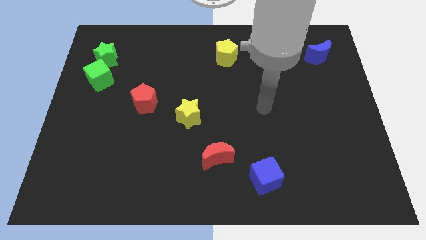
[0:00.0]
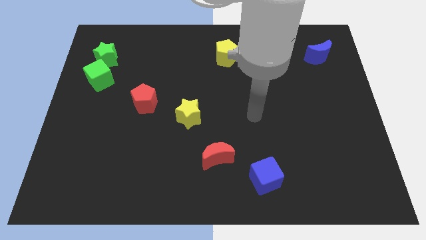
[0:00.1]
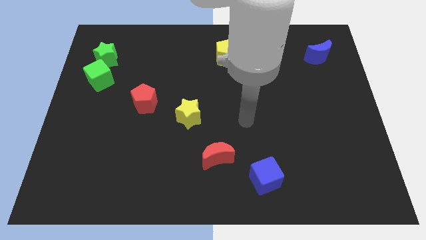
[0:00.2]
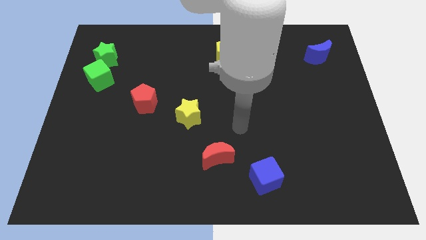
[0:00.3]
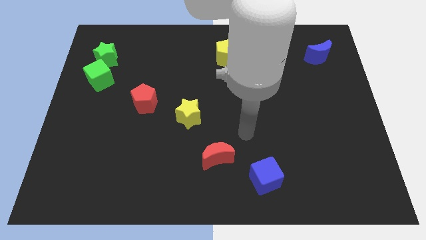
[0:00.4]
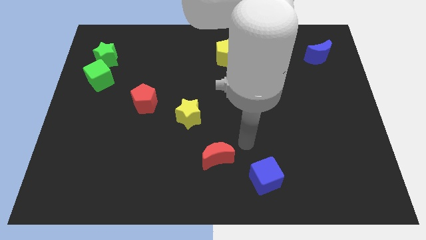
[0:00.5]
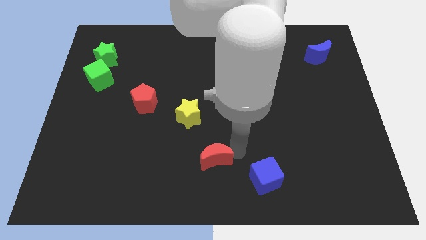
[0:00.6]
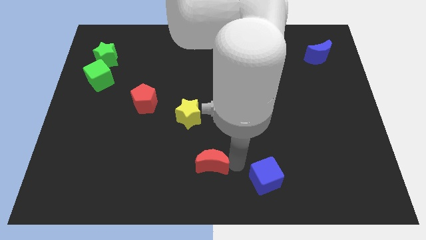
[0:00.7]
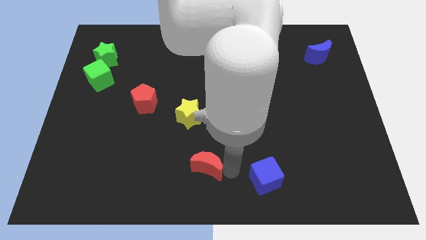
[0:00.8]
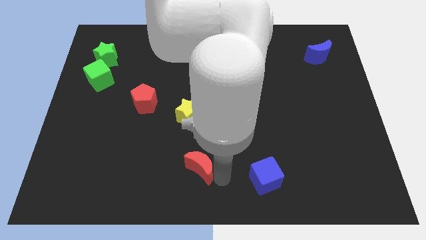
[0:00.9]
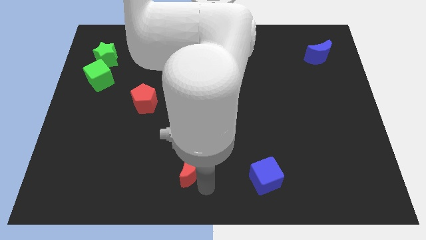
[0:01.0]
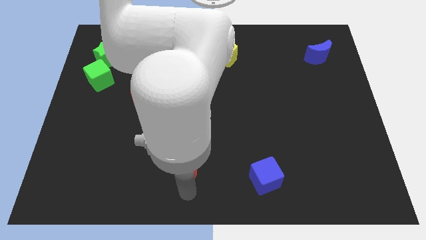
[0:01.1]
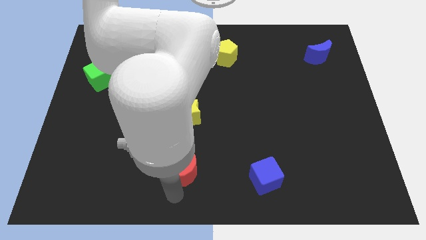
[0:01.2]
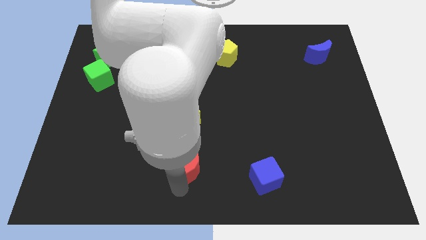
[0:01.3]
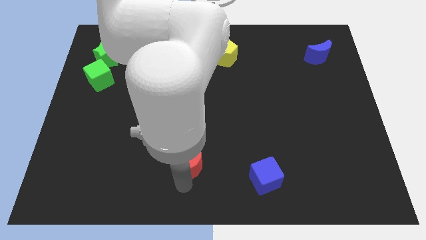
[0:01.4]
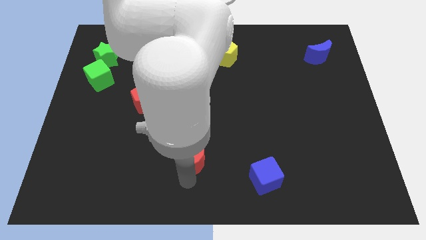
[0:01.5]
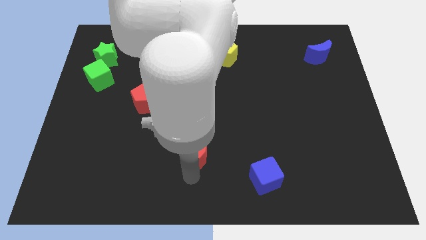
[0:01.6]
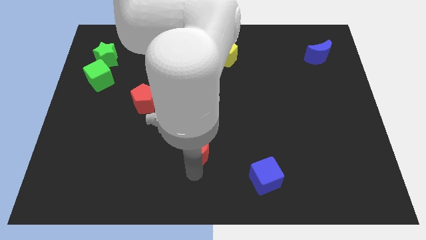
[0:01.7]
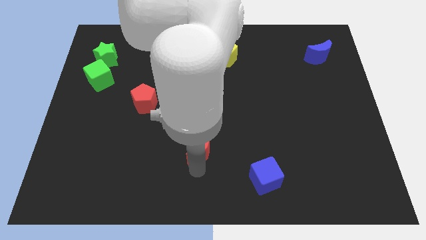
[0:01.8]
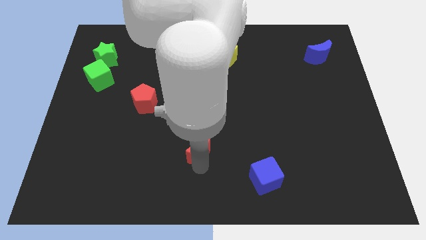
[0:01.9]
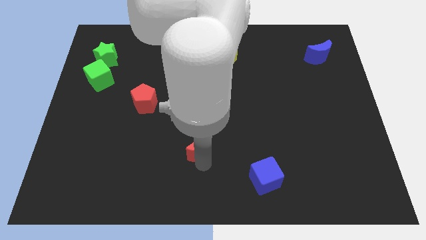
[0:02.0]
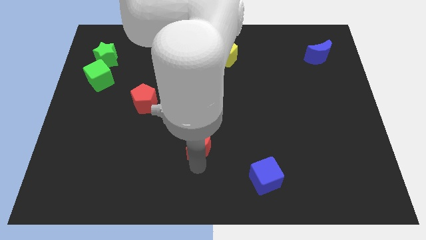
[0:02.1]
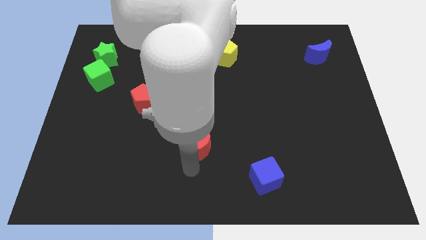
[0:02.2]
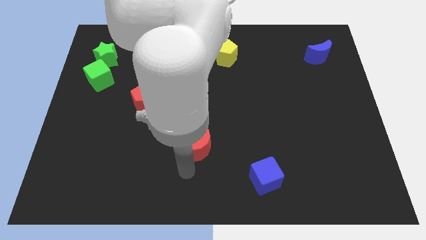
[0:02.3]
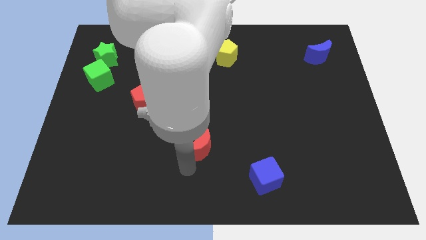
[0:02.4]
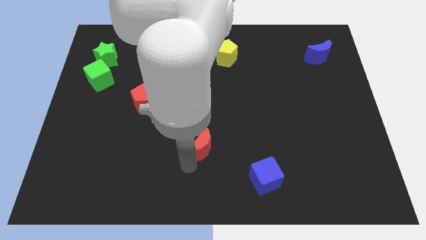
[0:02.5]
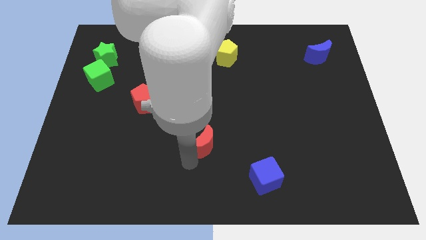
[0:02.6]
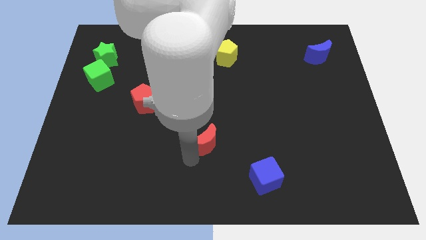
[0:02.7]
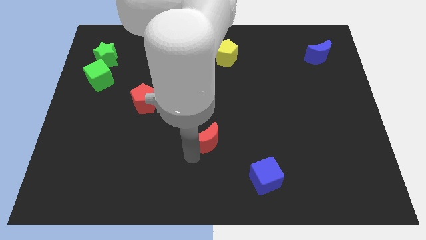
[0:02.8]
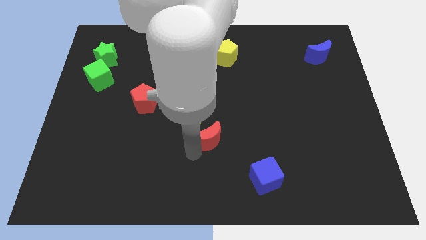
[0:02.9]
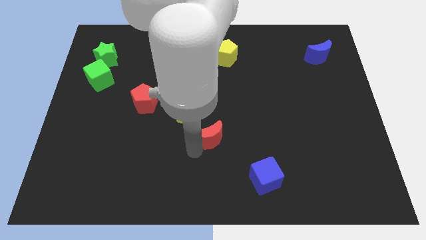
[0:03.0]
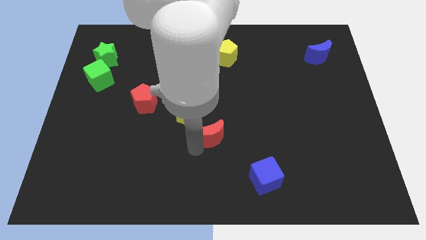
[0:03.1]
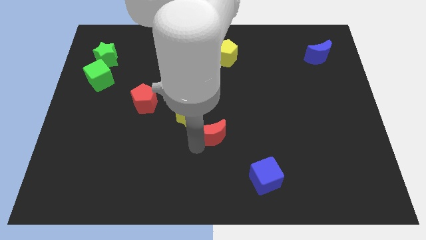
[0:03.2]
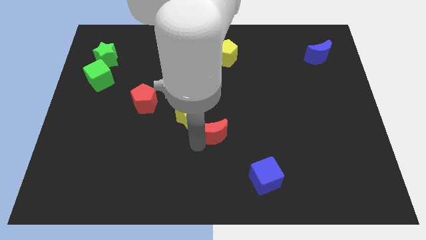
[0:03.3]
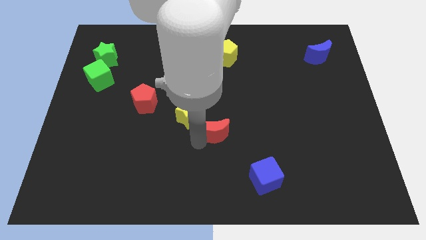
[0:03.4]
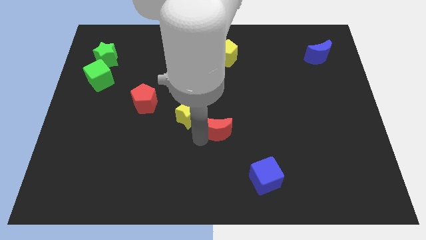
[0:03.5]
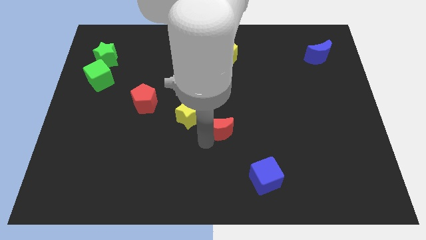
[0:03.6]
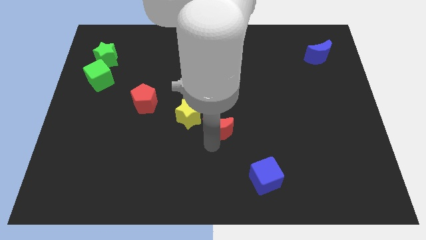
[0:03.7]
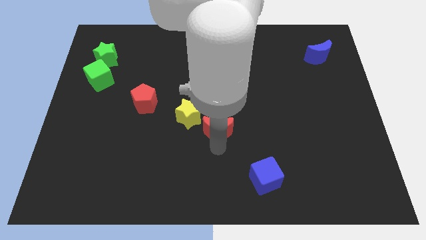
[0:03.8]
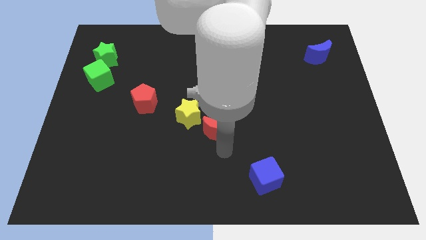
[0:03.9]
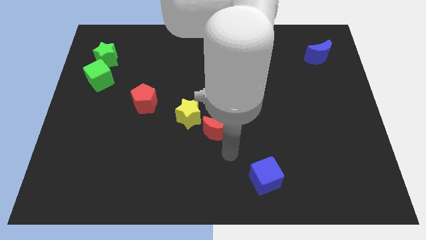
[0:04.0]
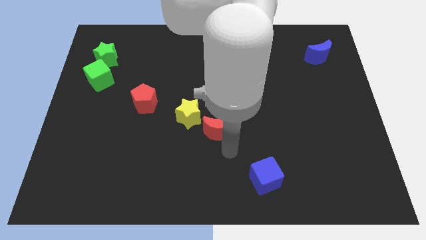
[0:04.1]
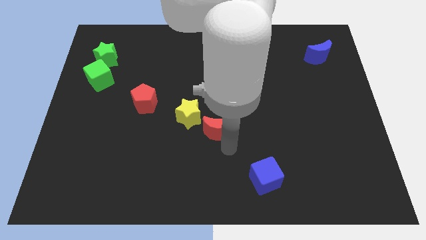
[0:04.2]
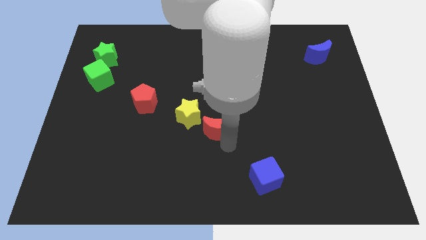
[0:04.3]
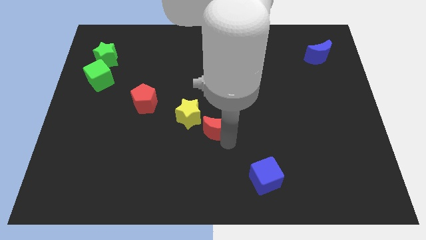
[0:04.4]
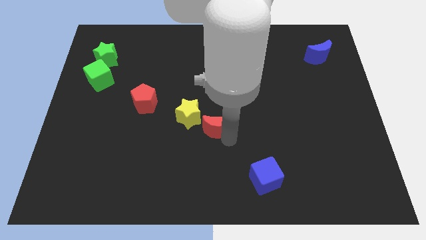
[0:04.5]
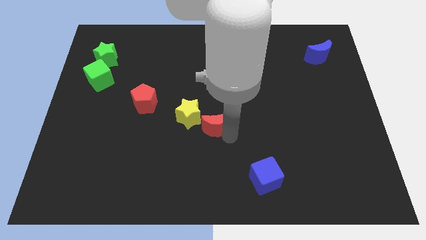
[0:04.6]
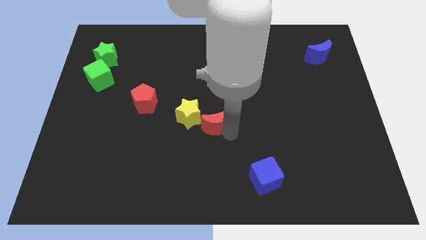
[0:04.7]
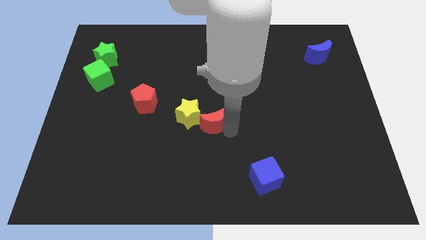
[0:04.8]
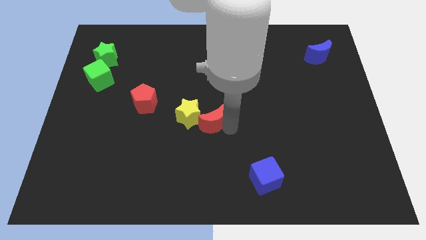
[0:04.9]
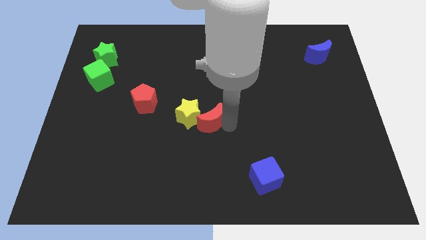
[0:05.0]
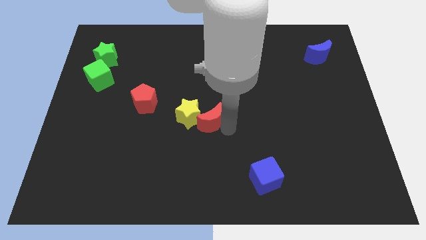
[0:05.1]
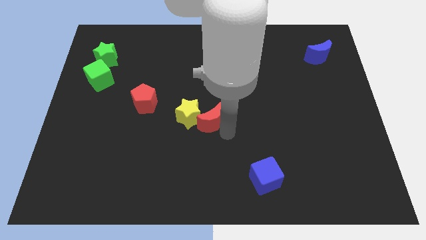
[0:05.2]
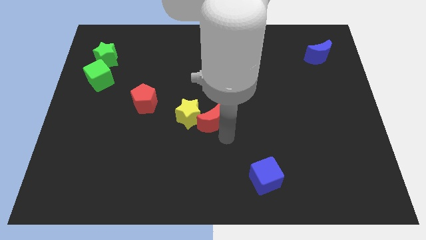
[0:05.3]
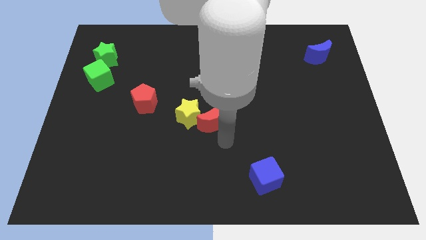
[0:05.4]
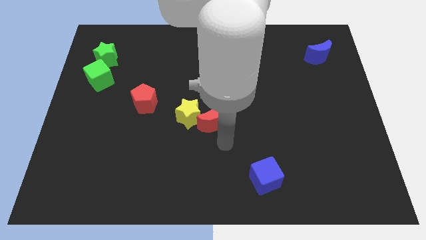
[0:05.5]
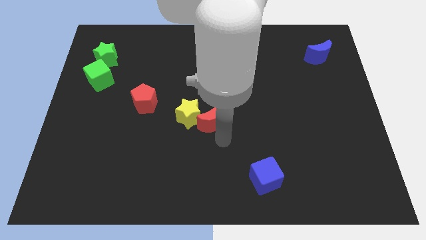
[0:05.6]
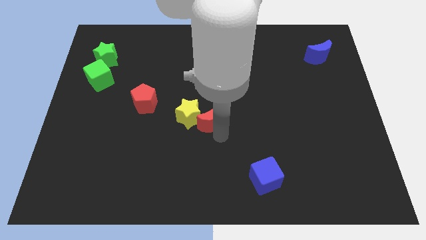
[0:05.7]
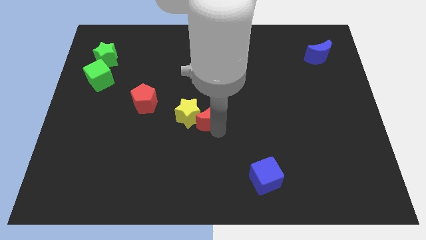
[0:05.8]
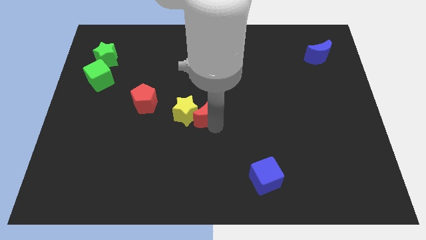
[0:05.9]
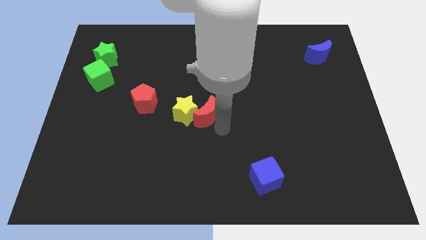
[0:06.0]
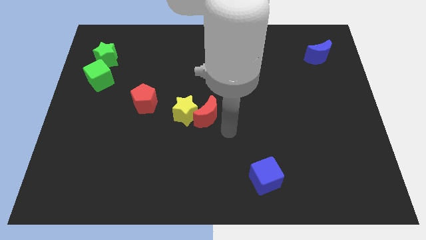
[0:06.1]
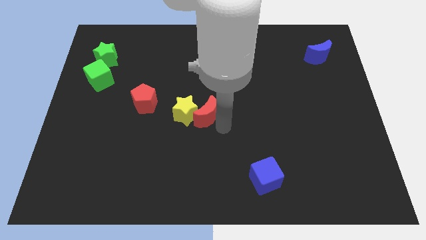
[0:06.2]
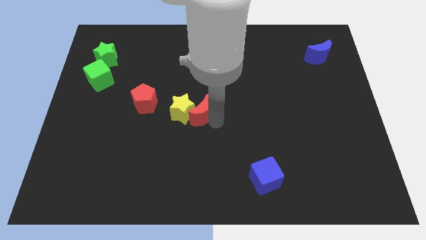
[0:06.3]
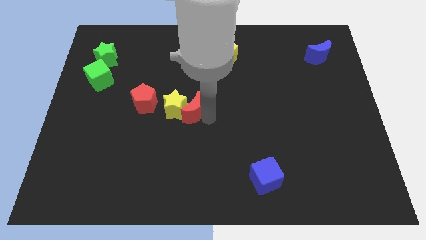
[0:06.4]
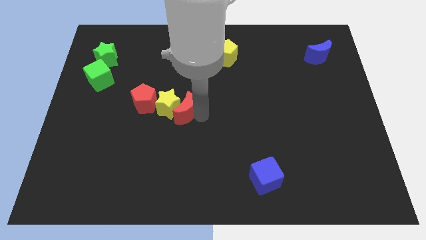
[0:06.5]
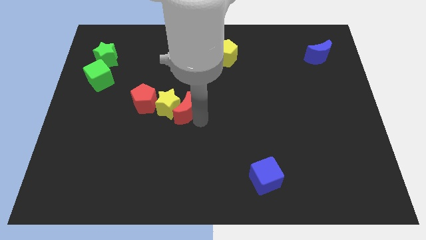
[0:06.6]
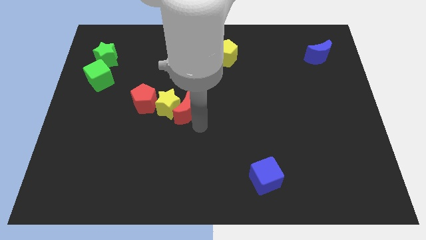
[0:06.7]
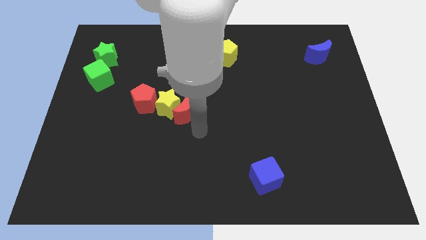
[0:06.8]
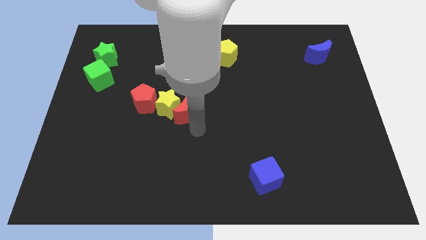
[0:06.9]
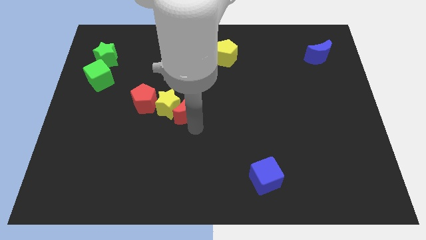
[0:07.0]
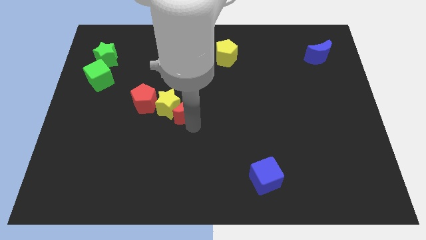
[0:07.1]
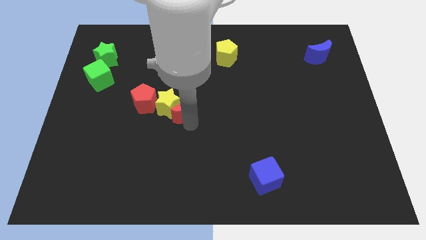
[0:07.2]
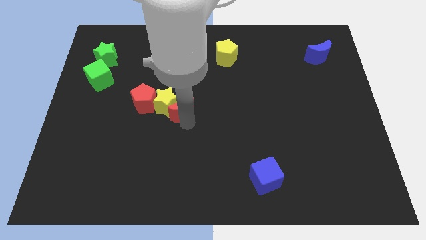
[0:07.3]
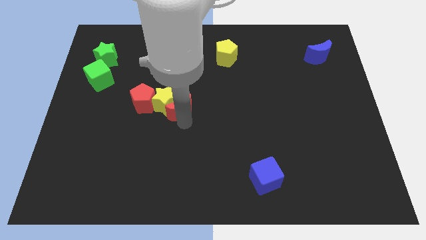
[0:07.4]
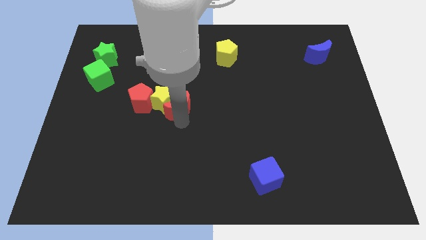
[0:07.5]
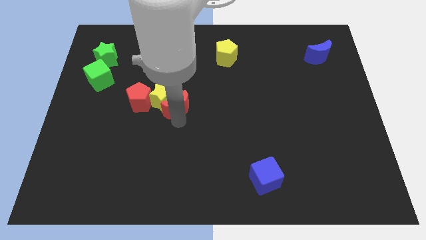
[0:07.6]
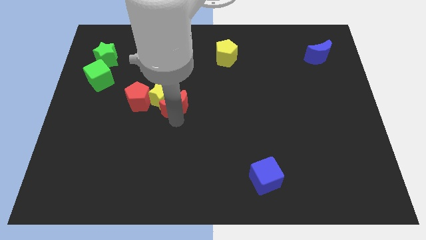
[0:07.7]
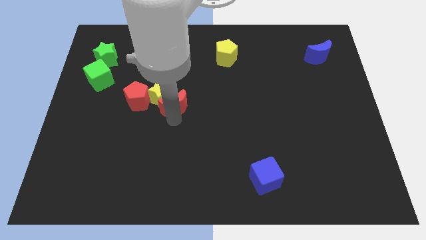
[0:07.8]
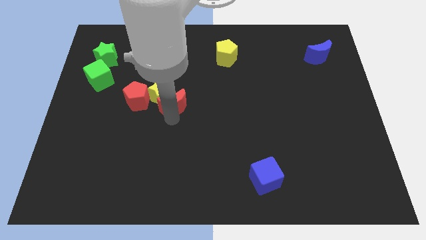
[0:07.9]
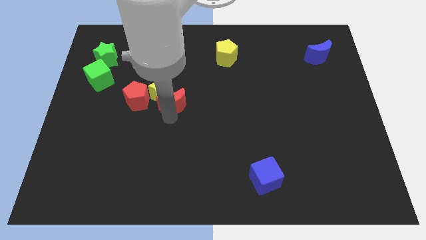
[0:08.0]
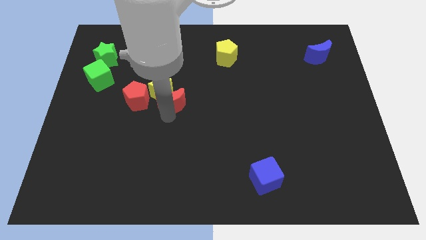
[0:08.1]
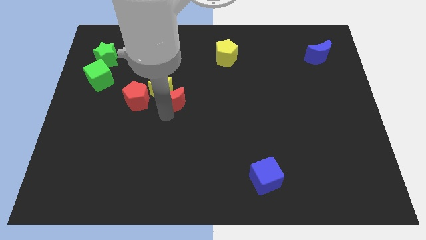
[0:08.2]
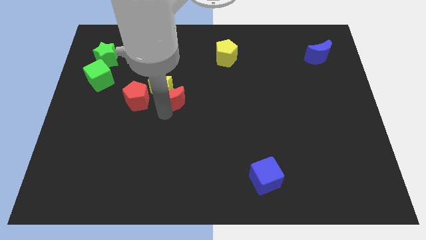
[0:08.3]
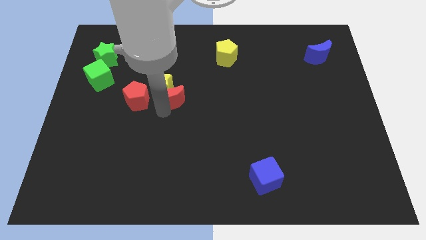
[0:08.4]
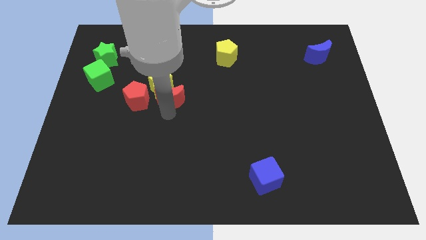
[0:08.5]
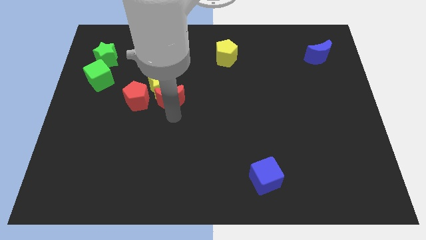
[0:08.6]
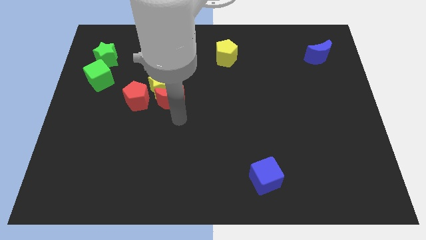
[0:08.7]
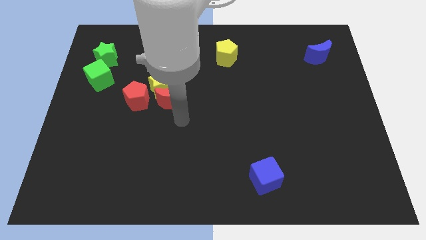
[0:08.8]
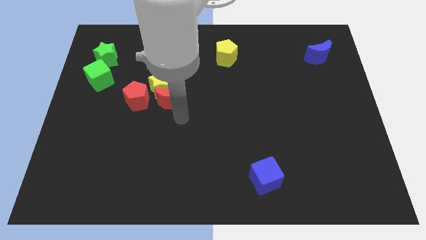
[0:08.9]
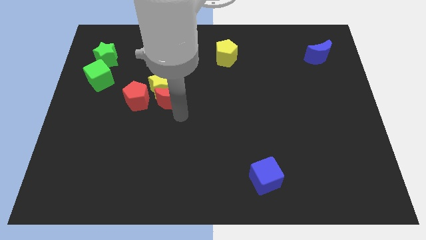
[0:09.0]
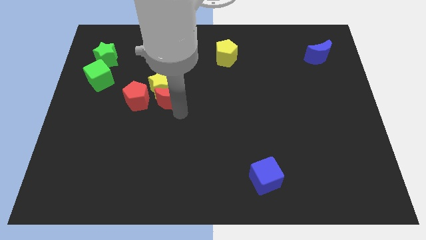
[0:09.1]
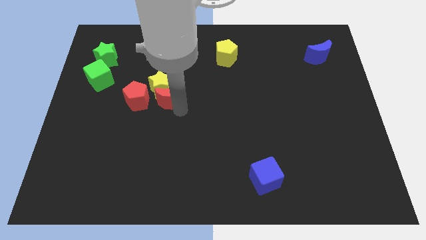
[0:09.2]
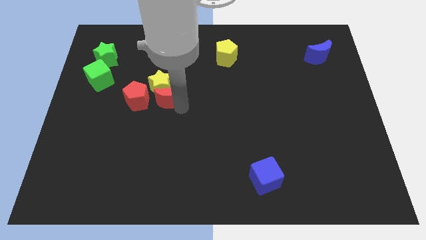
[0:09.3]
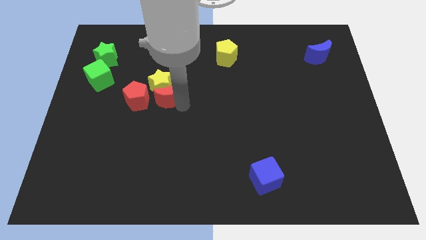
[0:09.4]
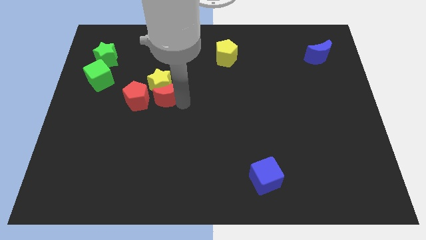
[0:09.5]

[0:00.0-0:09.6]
move the red moon diagonally up and to the right of the red pentagon
